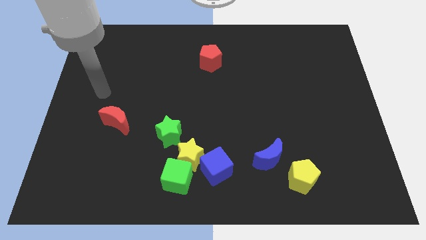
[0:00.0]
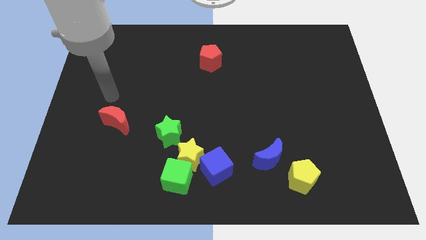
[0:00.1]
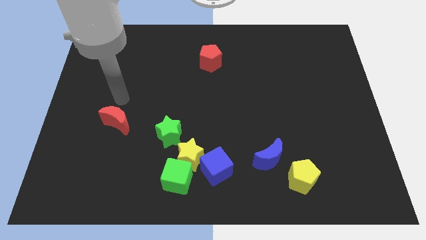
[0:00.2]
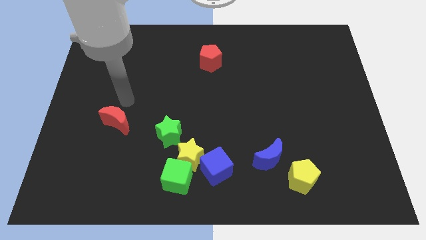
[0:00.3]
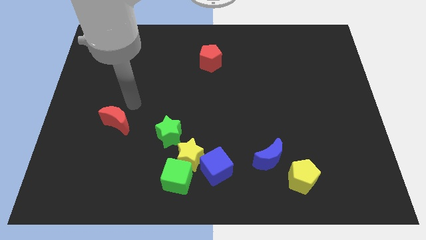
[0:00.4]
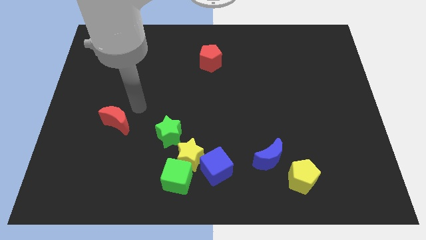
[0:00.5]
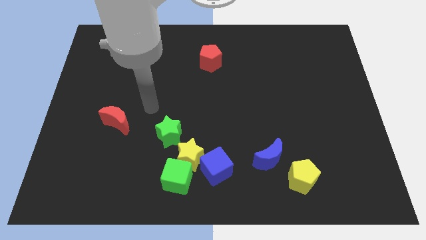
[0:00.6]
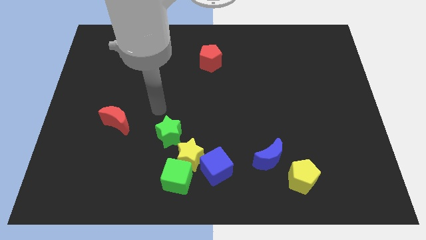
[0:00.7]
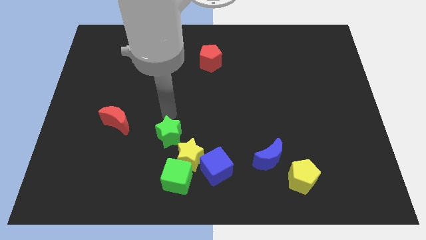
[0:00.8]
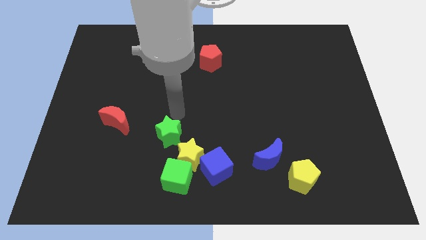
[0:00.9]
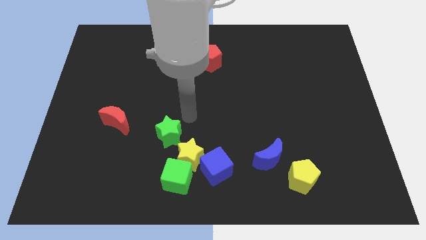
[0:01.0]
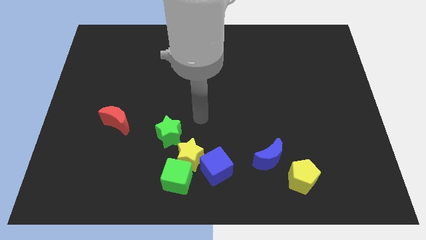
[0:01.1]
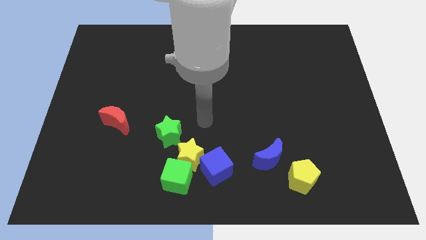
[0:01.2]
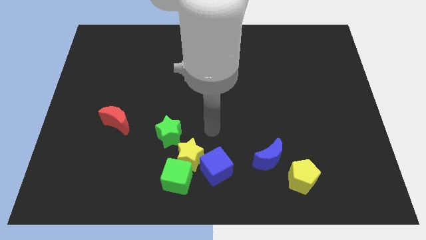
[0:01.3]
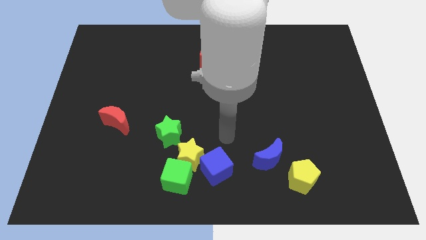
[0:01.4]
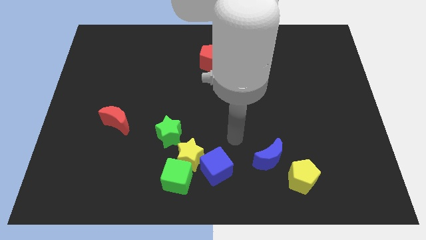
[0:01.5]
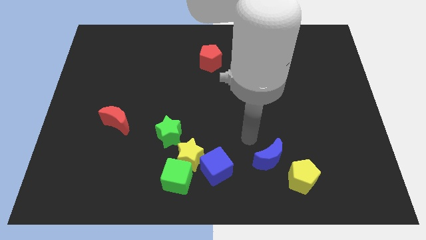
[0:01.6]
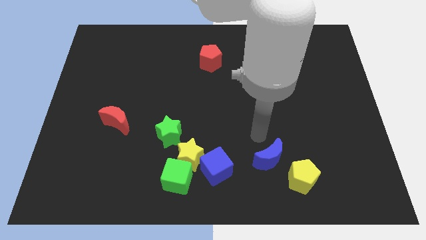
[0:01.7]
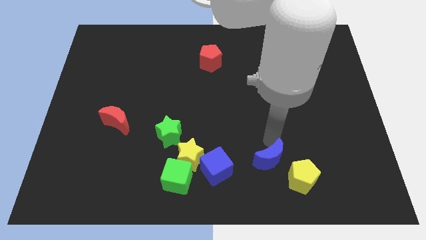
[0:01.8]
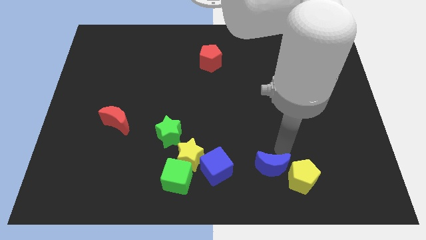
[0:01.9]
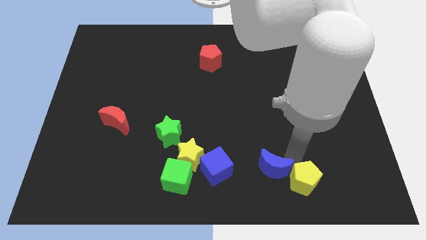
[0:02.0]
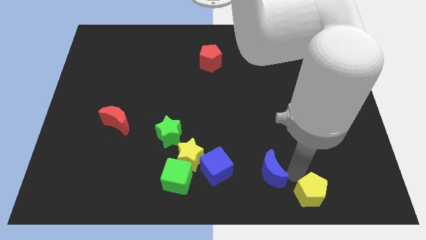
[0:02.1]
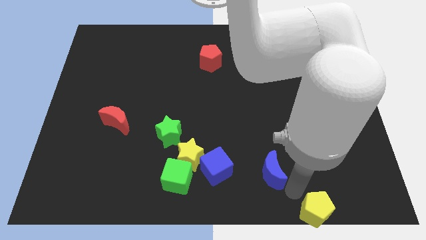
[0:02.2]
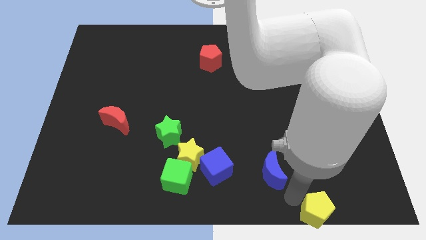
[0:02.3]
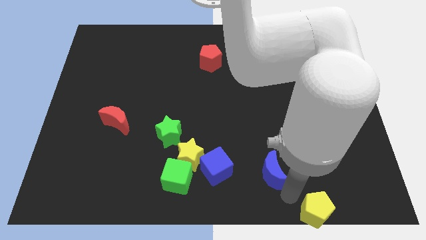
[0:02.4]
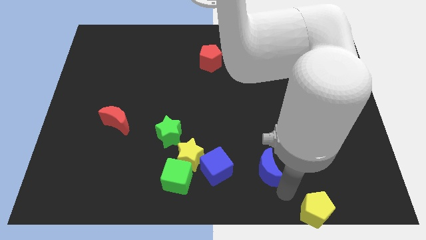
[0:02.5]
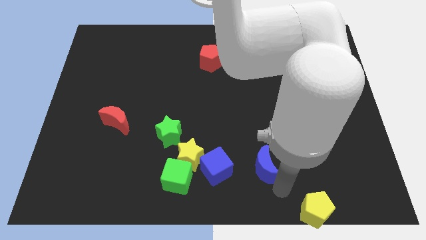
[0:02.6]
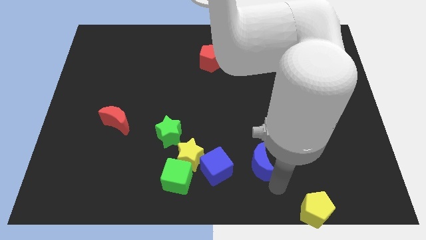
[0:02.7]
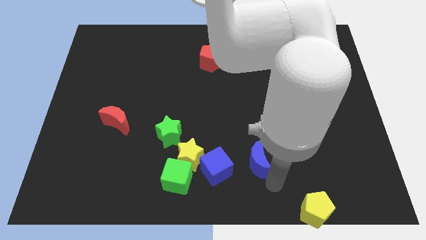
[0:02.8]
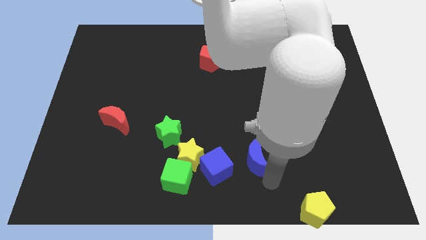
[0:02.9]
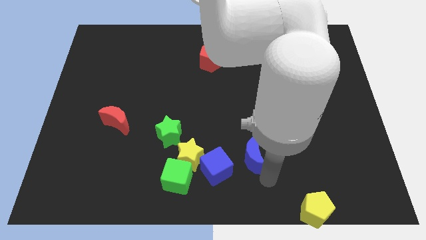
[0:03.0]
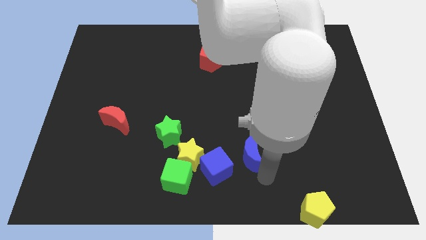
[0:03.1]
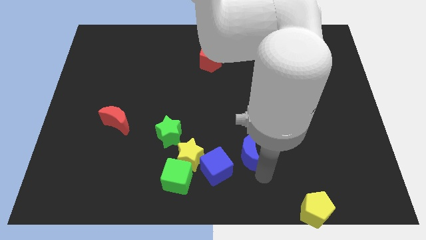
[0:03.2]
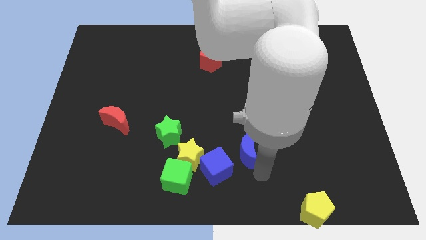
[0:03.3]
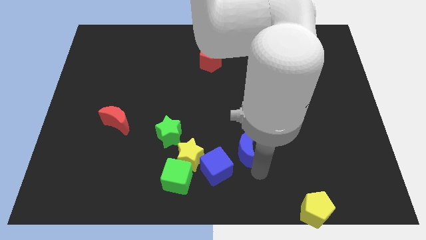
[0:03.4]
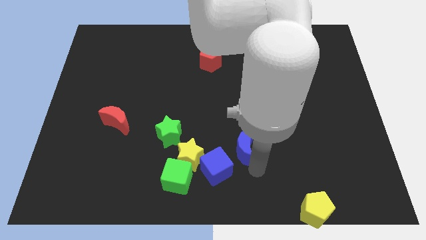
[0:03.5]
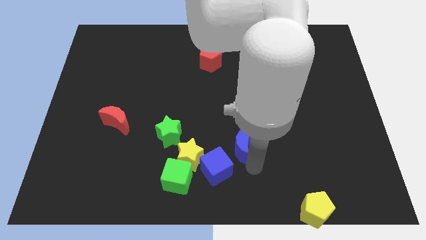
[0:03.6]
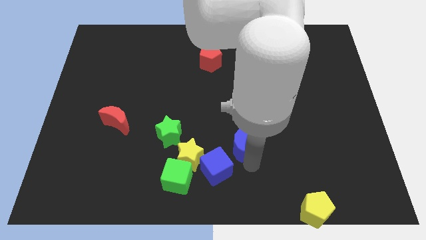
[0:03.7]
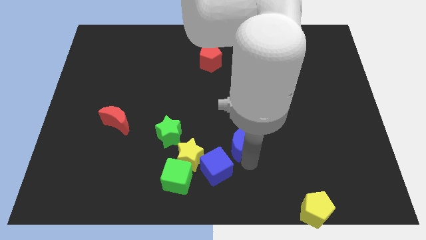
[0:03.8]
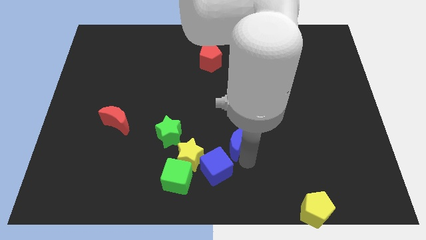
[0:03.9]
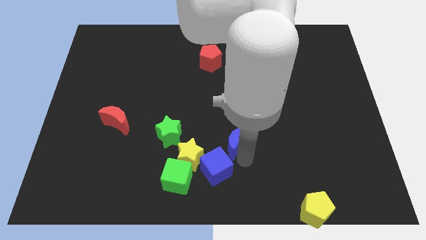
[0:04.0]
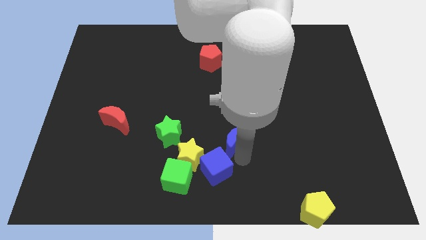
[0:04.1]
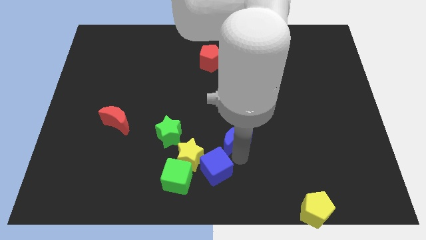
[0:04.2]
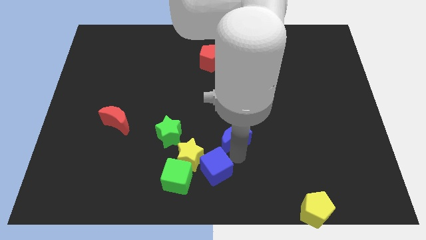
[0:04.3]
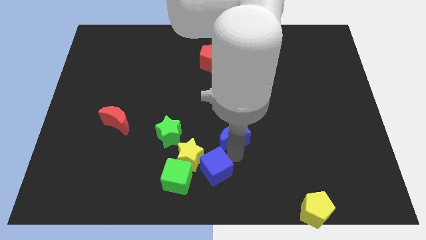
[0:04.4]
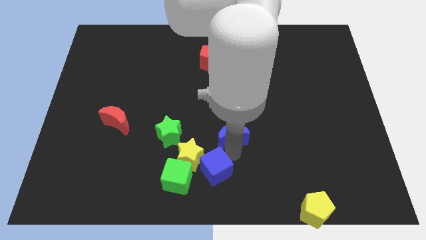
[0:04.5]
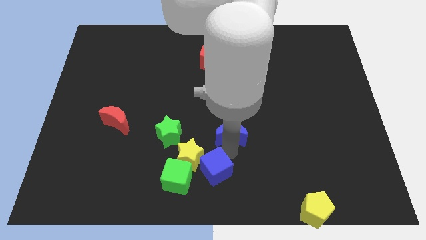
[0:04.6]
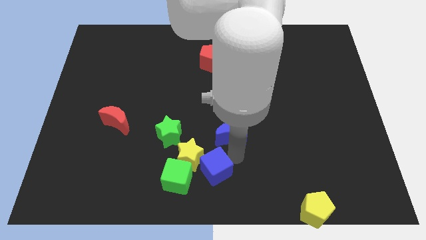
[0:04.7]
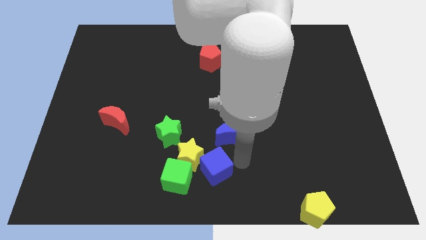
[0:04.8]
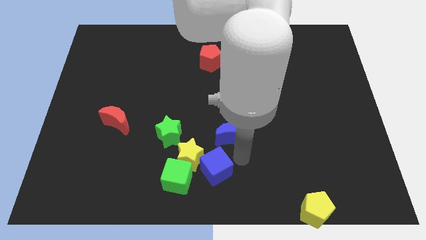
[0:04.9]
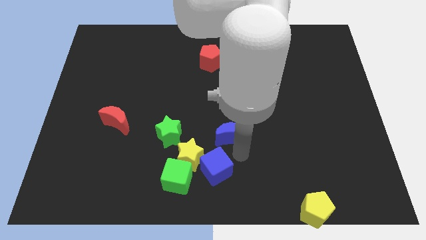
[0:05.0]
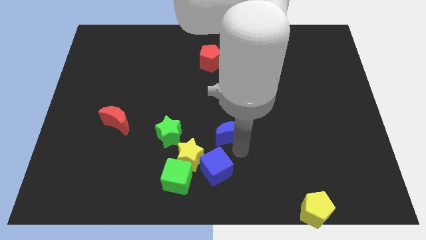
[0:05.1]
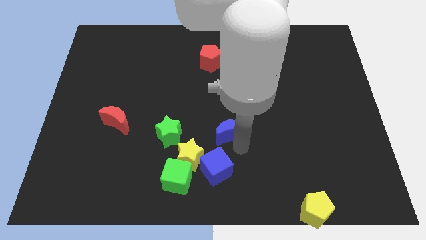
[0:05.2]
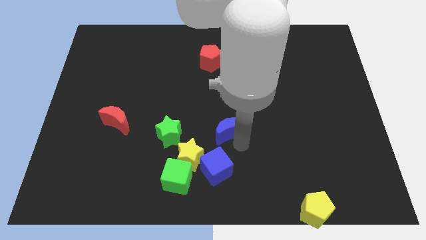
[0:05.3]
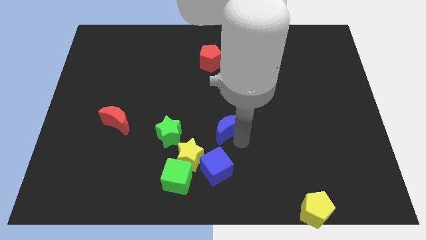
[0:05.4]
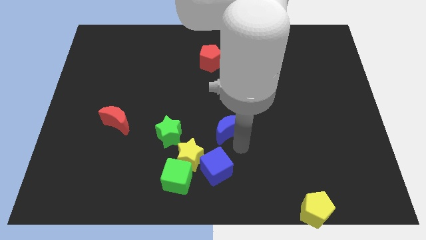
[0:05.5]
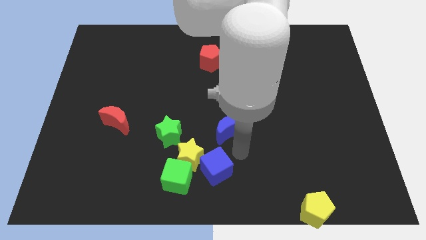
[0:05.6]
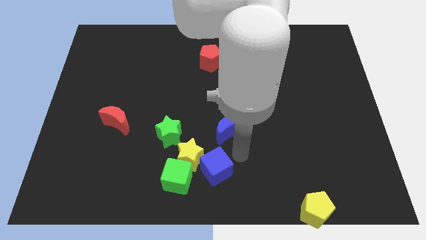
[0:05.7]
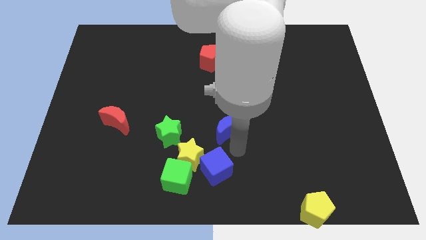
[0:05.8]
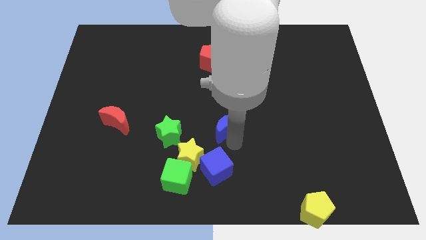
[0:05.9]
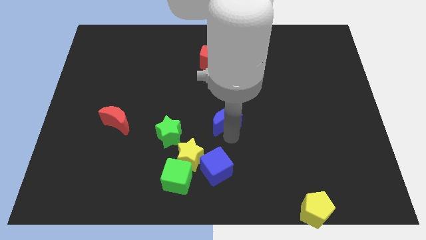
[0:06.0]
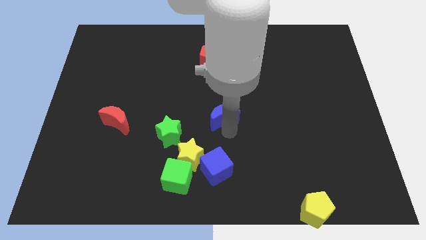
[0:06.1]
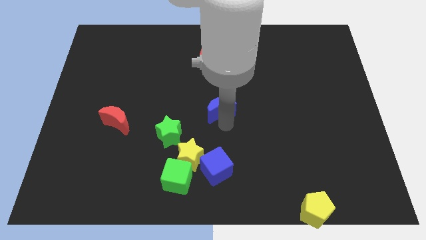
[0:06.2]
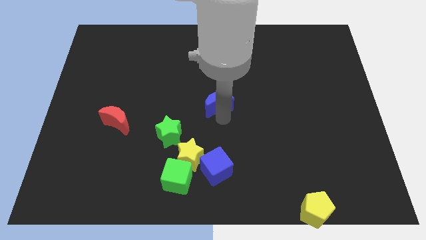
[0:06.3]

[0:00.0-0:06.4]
move the blue moon to the bottom of the red pentagon

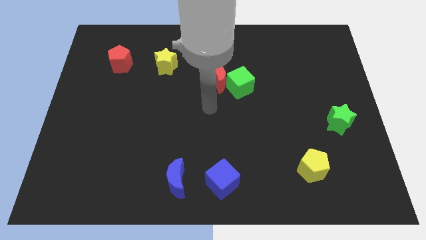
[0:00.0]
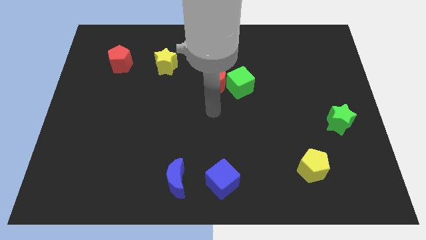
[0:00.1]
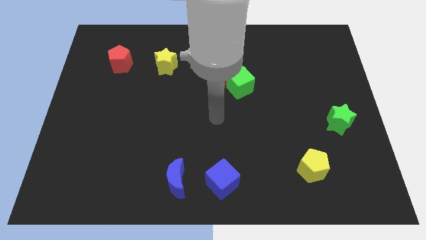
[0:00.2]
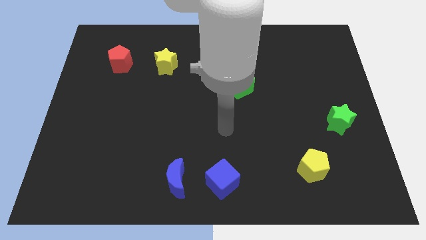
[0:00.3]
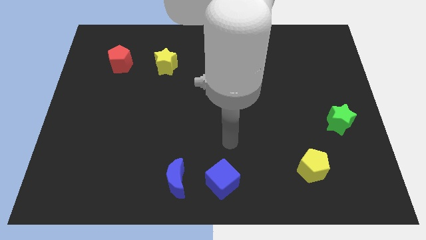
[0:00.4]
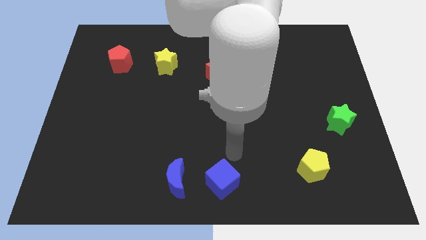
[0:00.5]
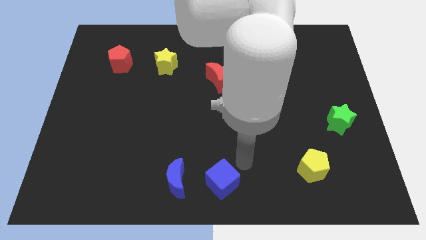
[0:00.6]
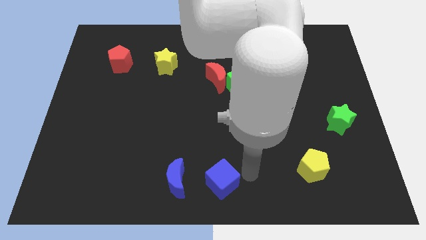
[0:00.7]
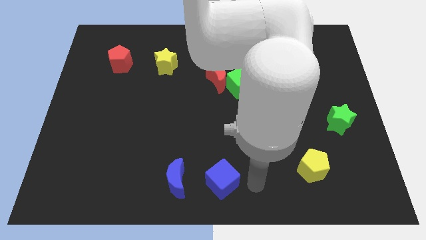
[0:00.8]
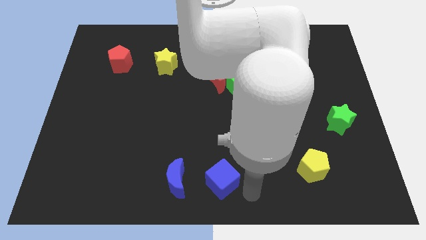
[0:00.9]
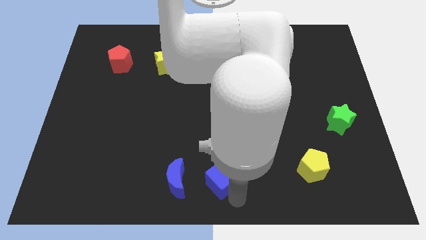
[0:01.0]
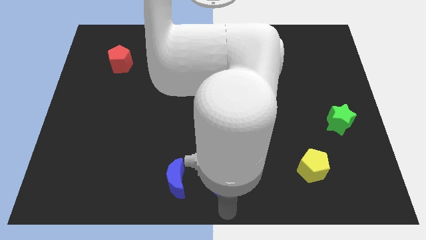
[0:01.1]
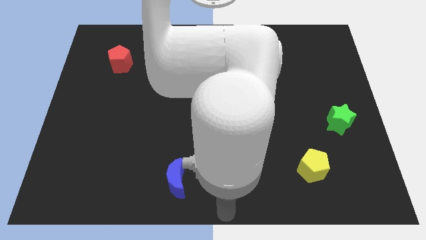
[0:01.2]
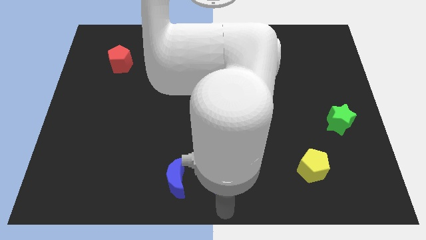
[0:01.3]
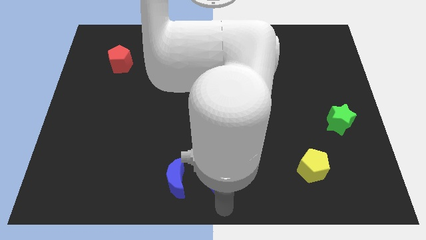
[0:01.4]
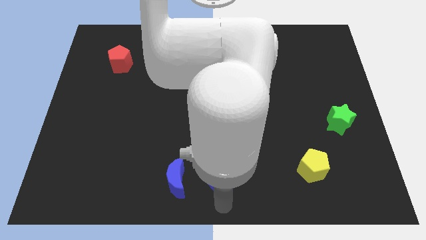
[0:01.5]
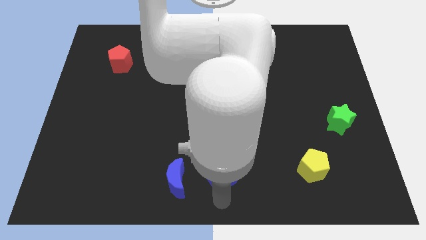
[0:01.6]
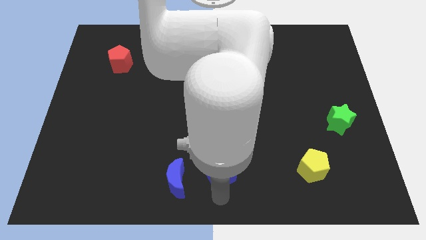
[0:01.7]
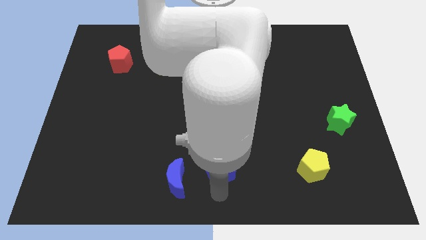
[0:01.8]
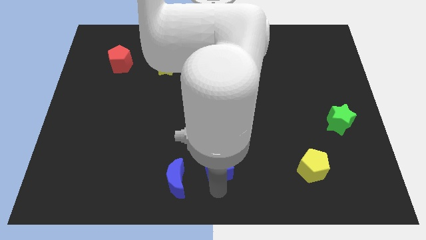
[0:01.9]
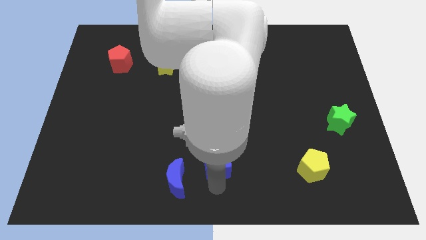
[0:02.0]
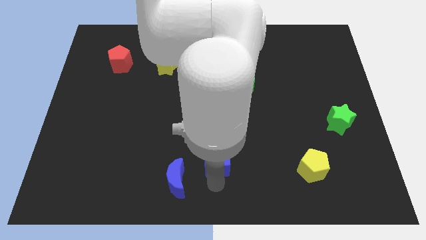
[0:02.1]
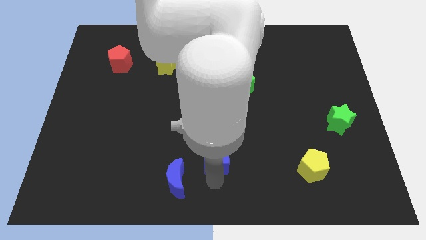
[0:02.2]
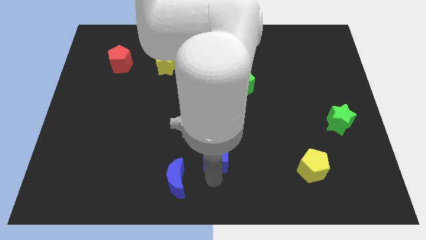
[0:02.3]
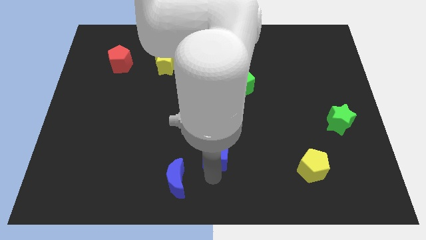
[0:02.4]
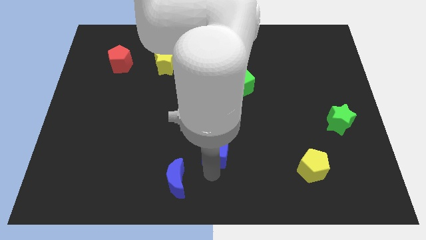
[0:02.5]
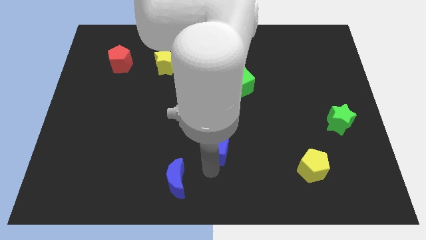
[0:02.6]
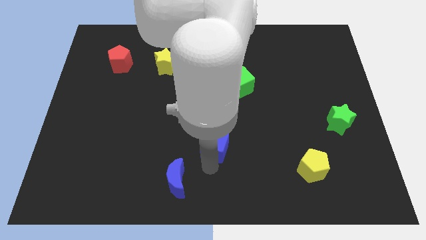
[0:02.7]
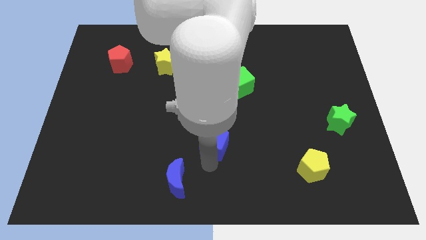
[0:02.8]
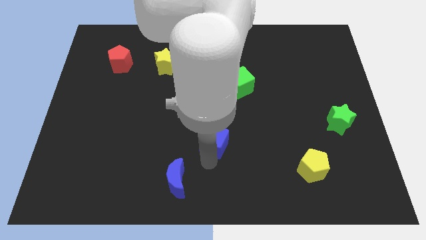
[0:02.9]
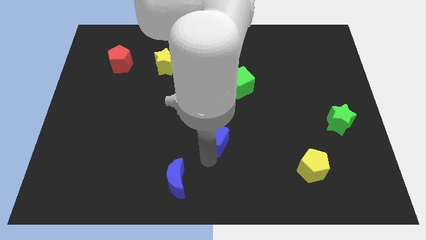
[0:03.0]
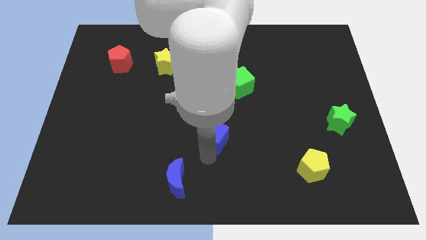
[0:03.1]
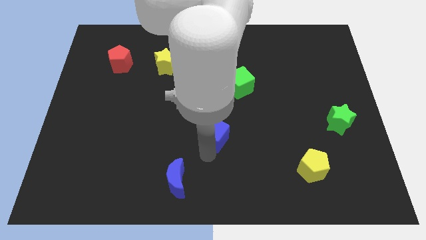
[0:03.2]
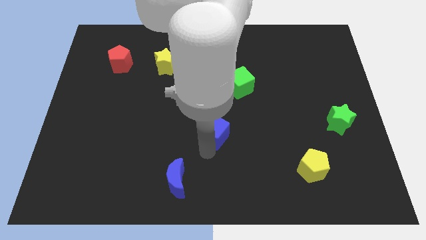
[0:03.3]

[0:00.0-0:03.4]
move the blue cube to the bottom side of the red moon
